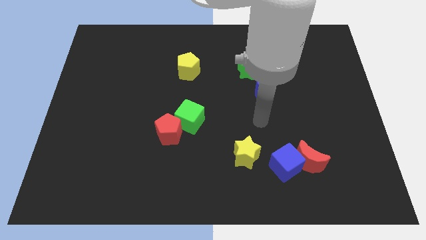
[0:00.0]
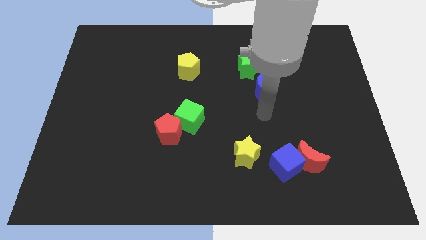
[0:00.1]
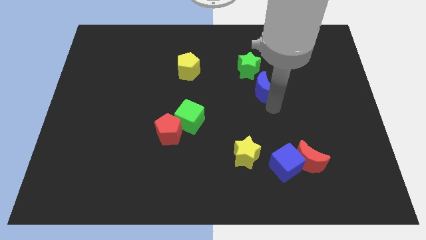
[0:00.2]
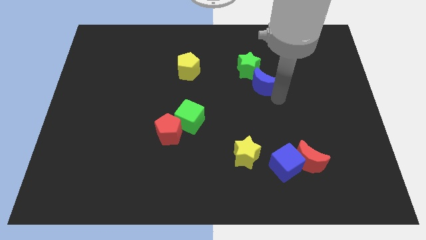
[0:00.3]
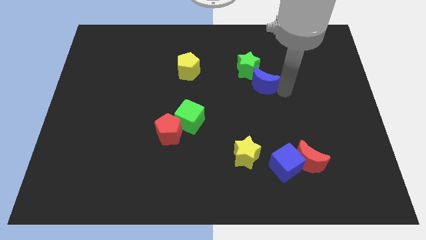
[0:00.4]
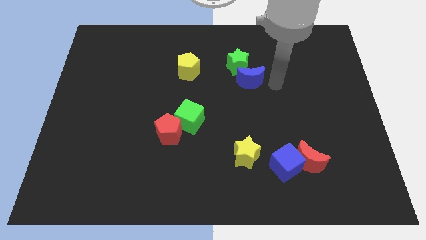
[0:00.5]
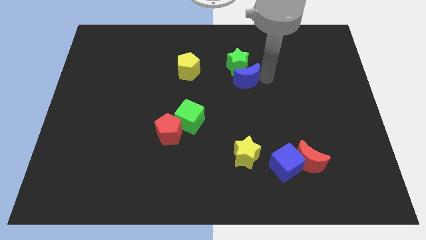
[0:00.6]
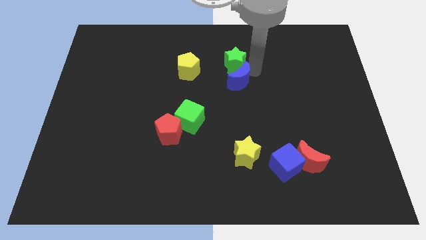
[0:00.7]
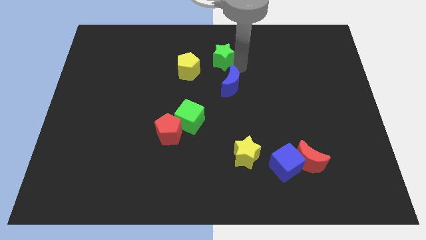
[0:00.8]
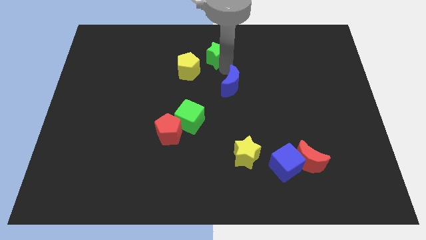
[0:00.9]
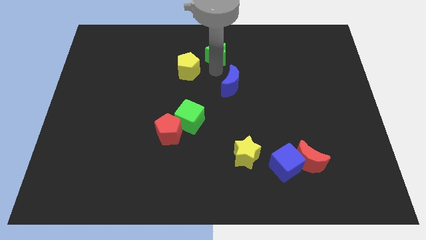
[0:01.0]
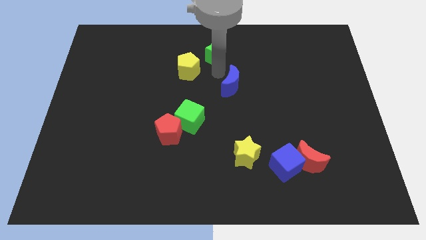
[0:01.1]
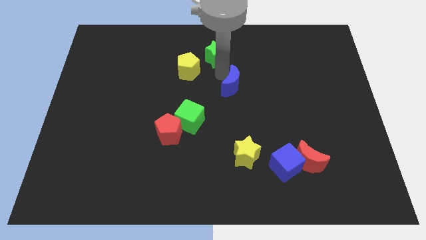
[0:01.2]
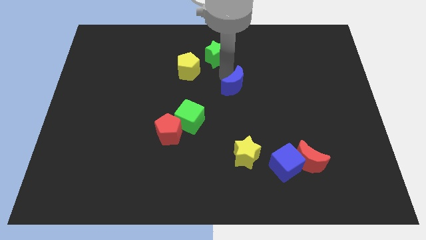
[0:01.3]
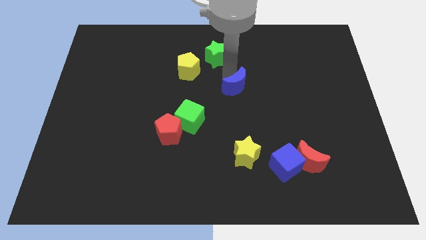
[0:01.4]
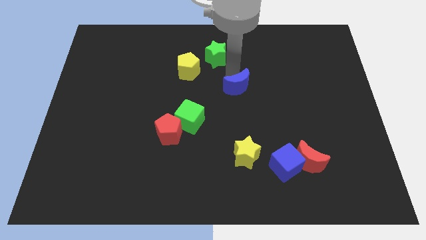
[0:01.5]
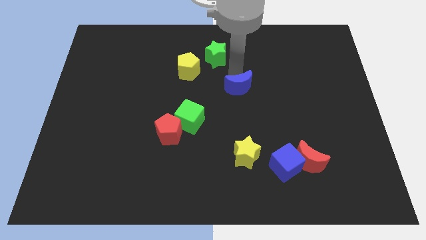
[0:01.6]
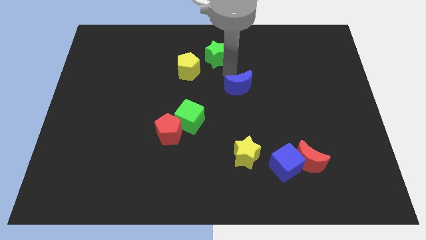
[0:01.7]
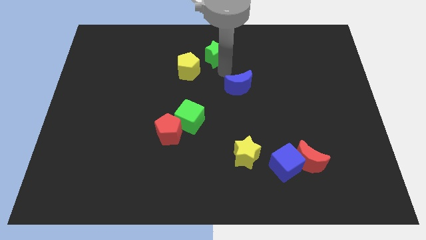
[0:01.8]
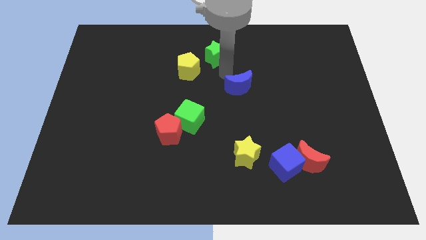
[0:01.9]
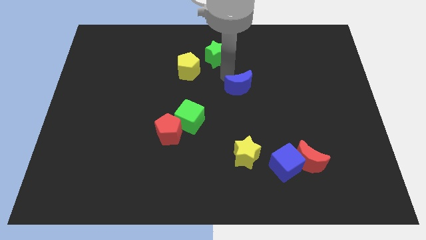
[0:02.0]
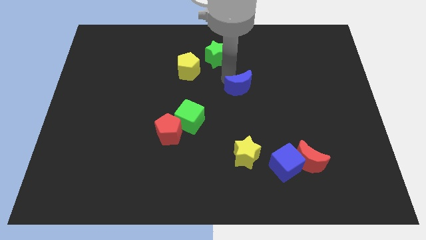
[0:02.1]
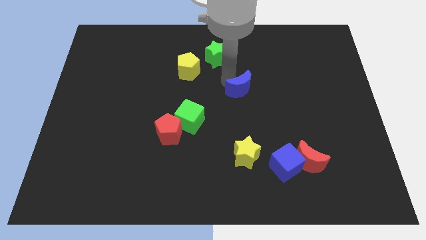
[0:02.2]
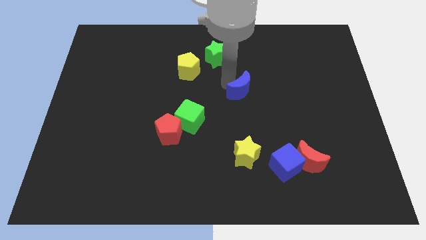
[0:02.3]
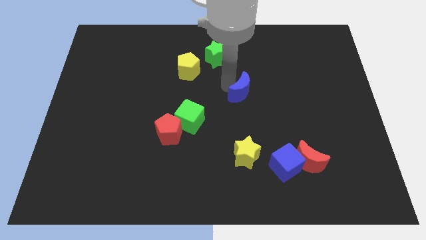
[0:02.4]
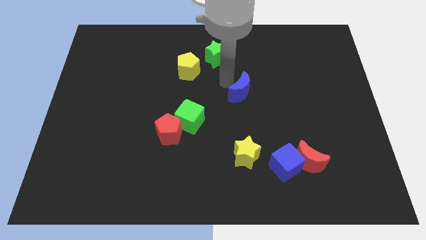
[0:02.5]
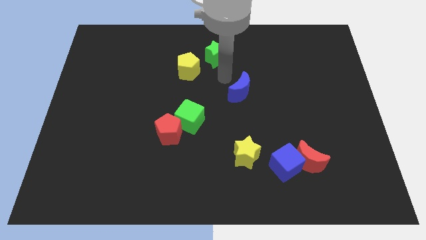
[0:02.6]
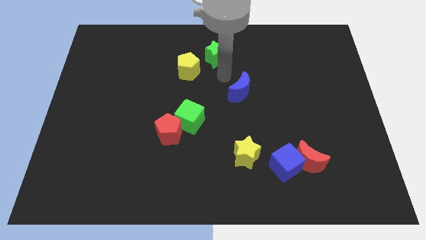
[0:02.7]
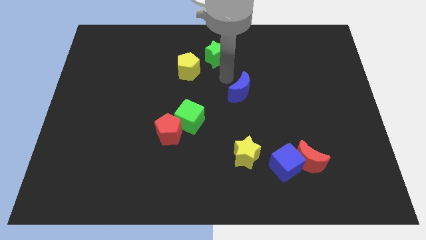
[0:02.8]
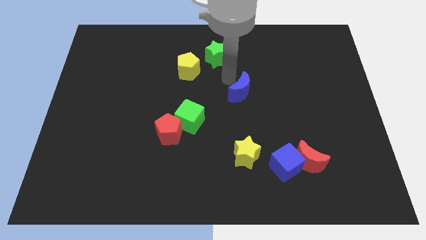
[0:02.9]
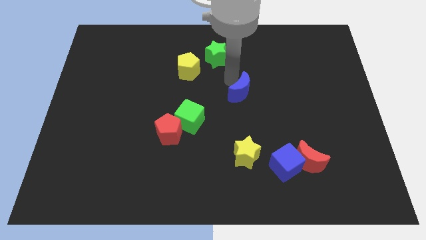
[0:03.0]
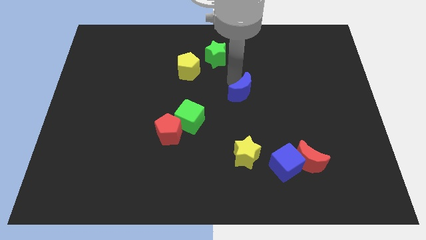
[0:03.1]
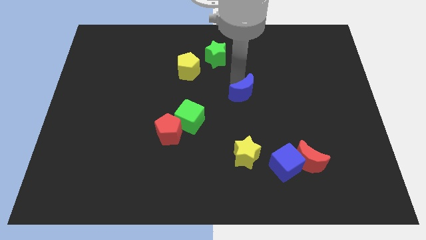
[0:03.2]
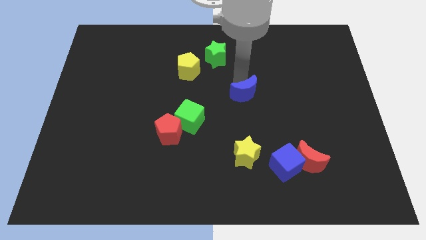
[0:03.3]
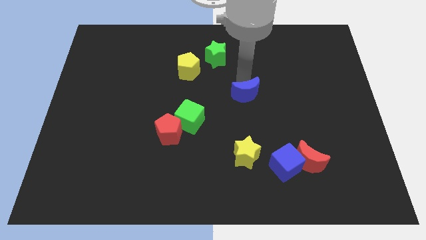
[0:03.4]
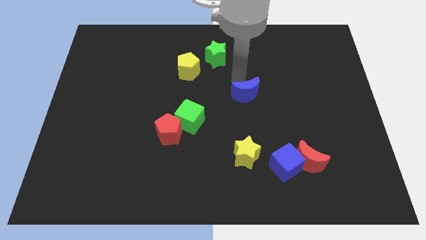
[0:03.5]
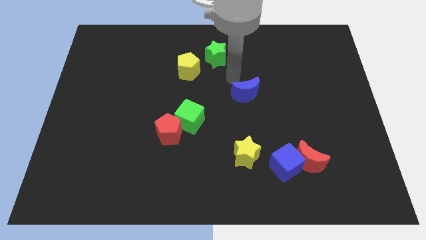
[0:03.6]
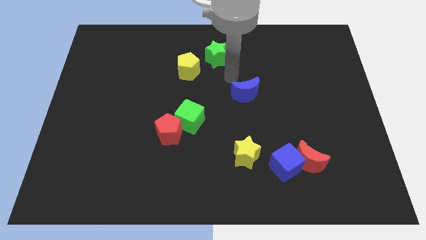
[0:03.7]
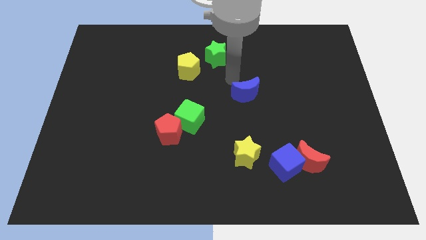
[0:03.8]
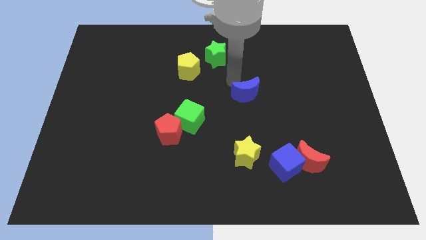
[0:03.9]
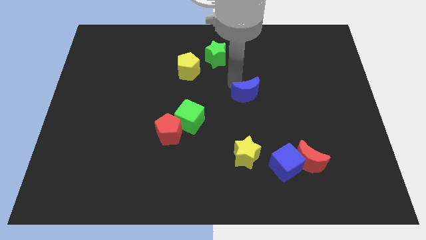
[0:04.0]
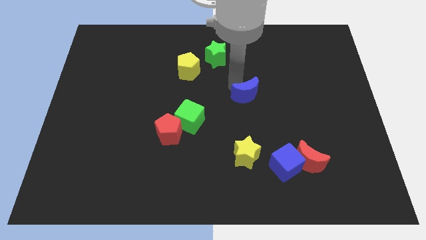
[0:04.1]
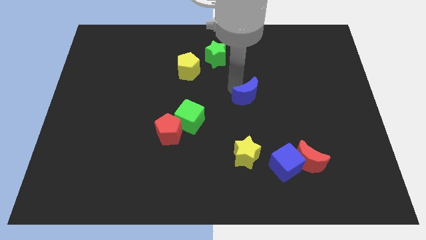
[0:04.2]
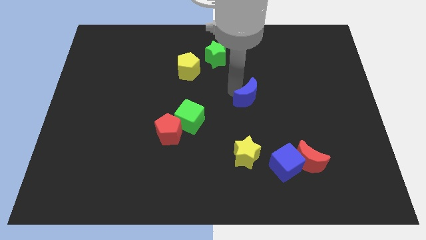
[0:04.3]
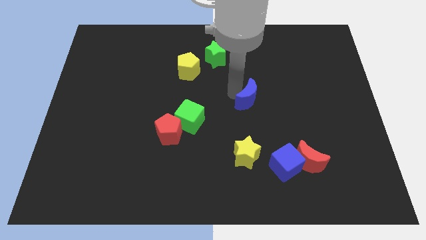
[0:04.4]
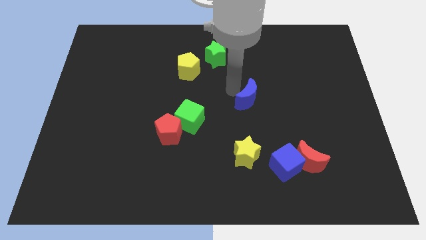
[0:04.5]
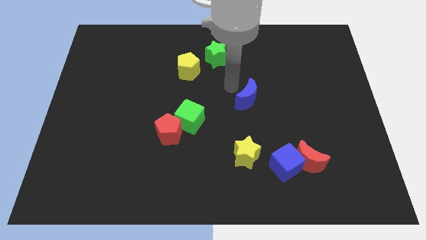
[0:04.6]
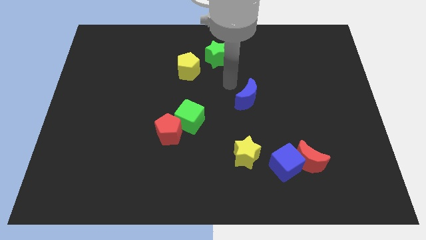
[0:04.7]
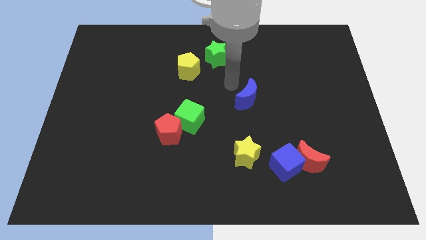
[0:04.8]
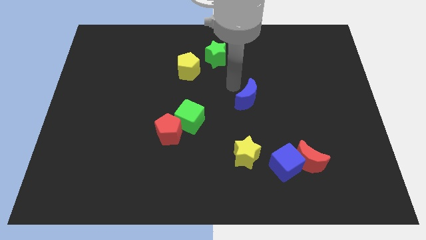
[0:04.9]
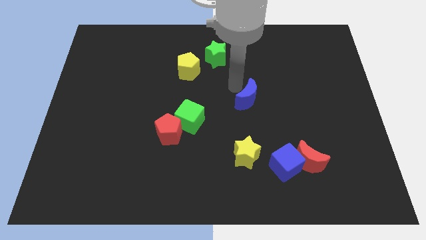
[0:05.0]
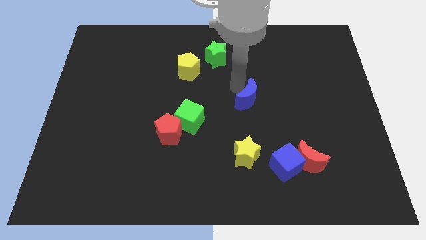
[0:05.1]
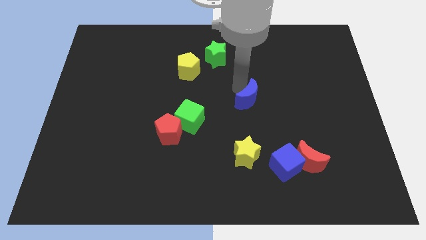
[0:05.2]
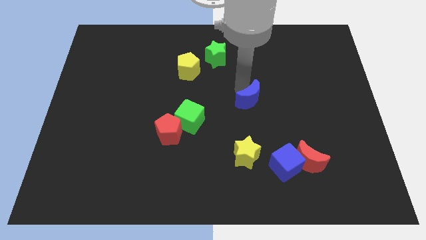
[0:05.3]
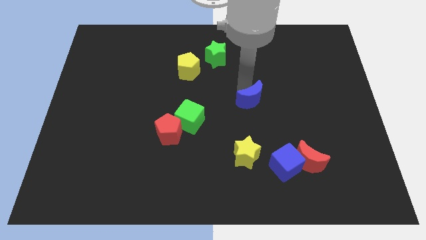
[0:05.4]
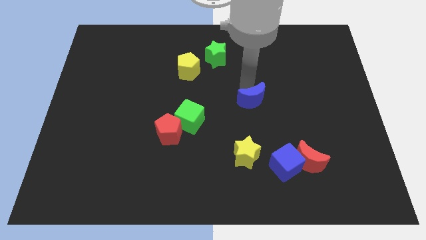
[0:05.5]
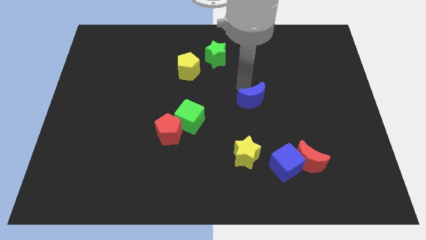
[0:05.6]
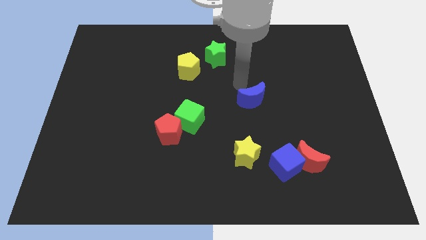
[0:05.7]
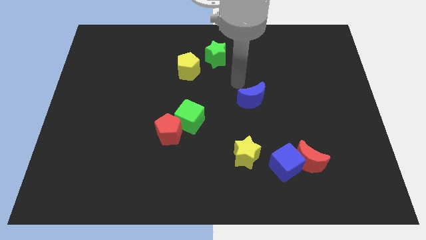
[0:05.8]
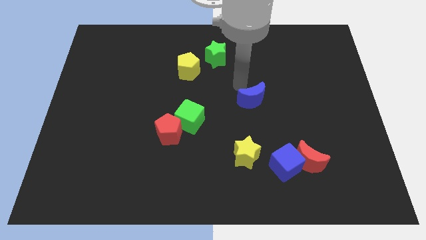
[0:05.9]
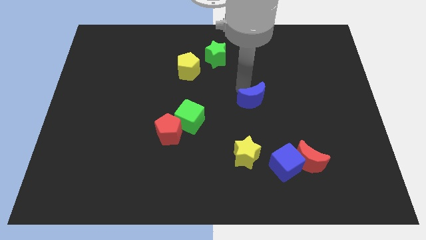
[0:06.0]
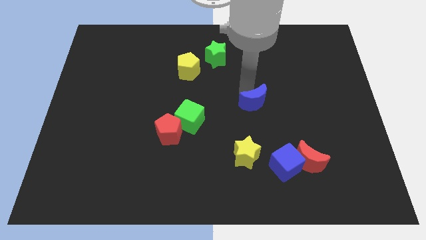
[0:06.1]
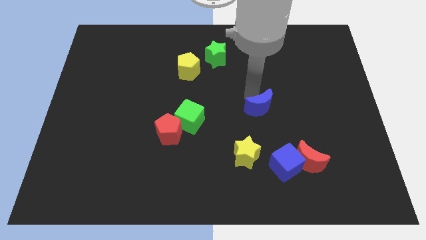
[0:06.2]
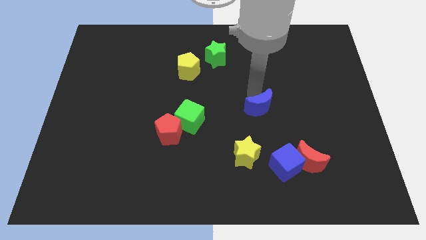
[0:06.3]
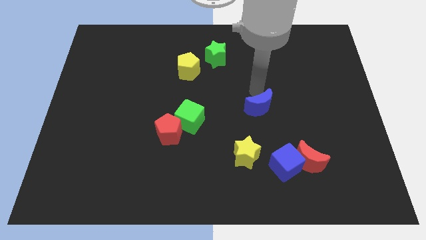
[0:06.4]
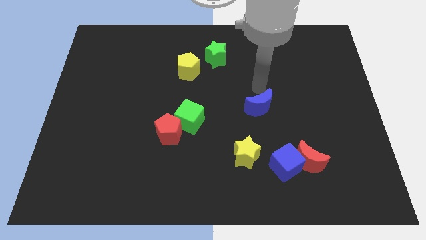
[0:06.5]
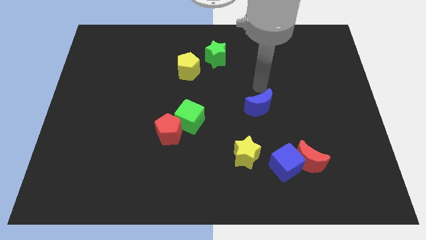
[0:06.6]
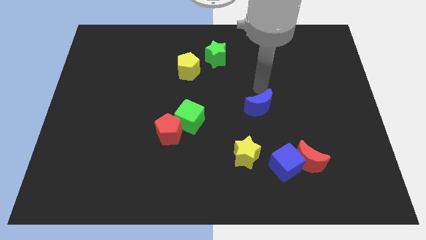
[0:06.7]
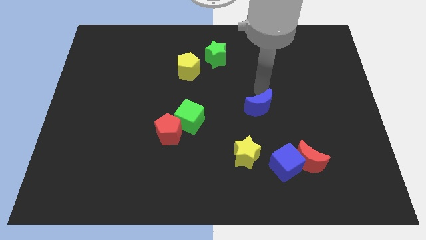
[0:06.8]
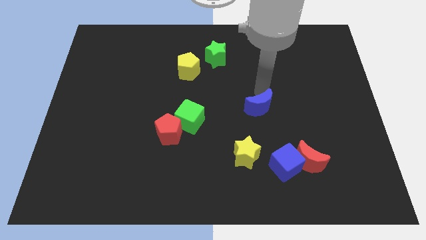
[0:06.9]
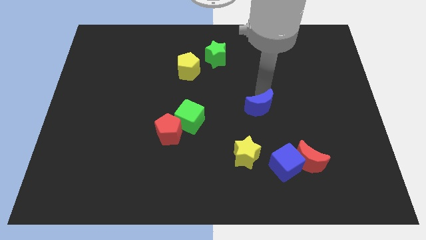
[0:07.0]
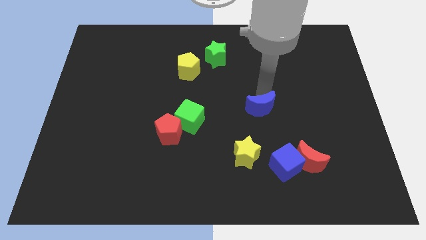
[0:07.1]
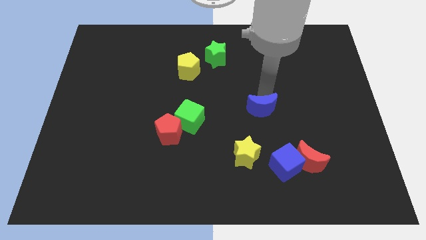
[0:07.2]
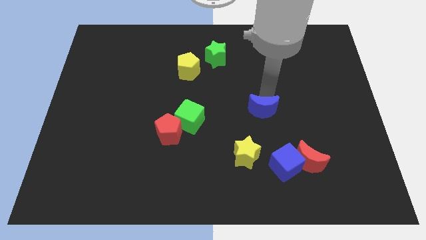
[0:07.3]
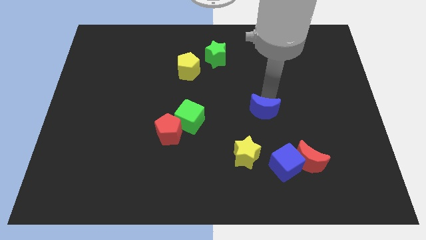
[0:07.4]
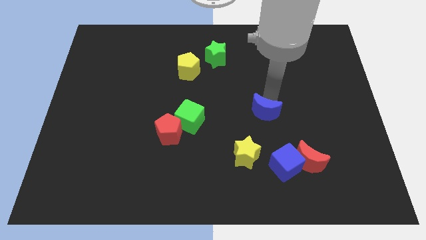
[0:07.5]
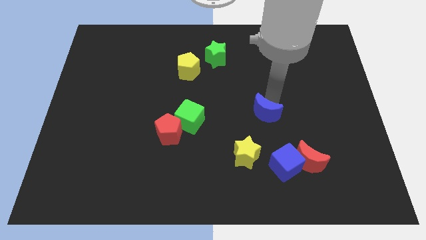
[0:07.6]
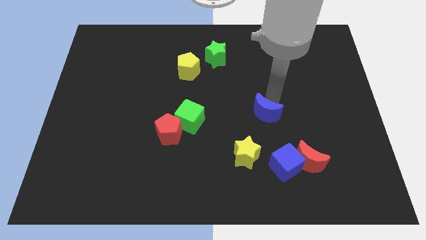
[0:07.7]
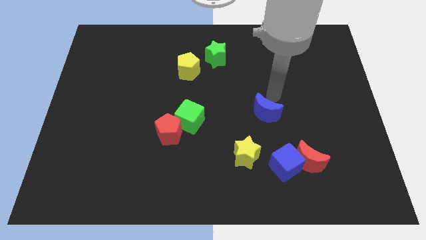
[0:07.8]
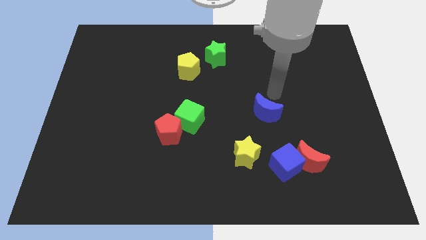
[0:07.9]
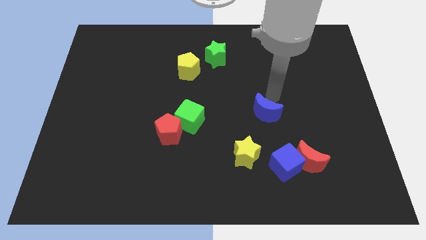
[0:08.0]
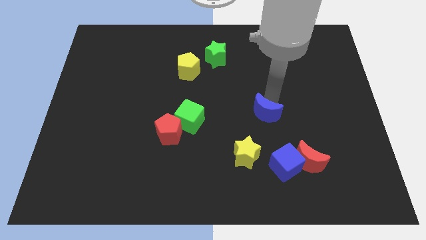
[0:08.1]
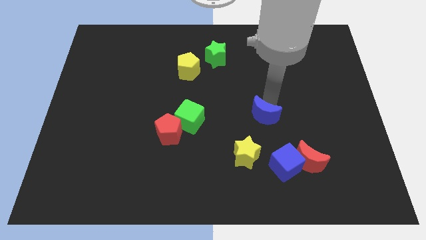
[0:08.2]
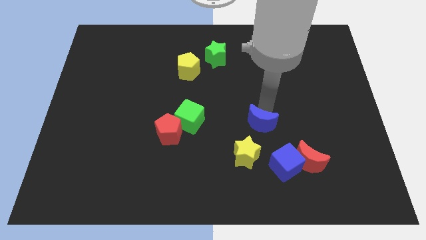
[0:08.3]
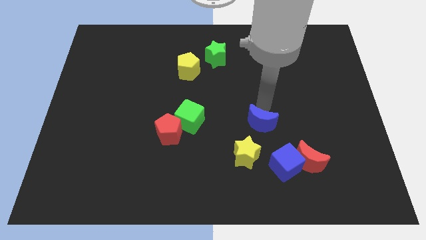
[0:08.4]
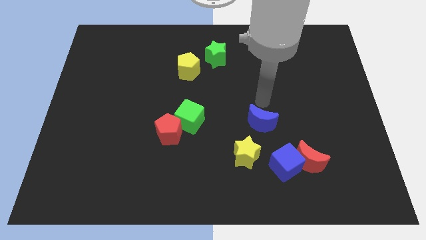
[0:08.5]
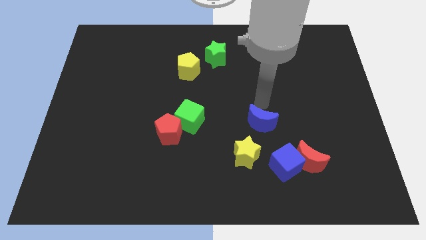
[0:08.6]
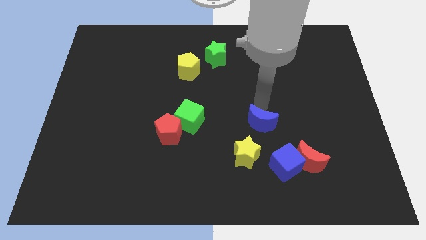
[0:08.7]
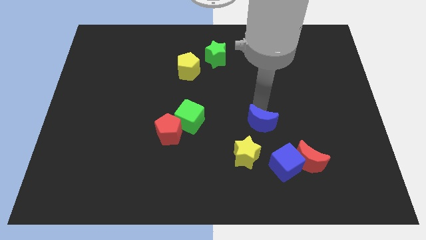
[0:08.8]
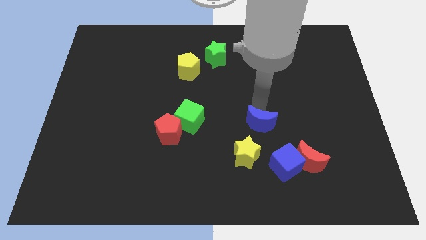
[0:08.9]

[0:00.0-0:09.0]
slide the blue moon to the top left of the blue cube
